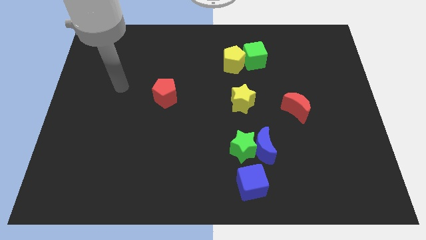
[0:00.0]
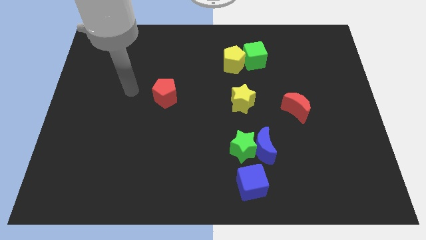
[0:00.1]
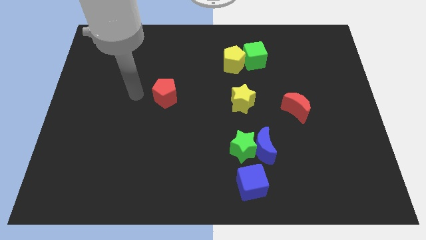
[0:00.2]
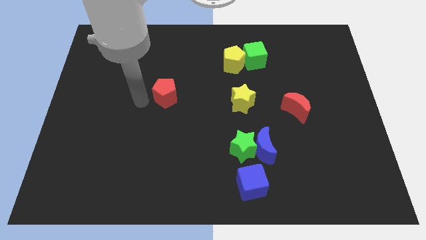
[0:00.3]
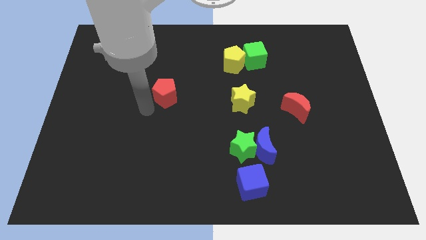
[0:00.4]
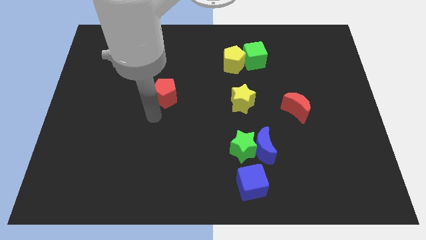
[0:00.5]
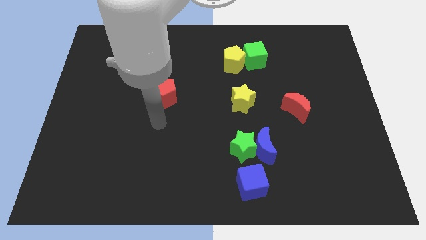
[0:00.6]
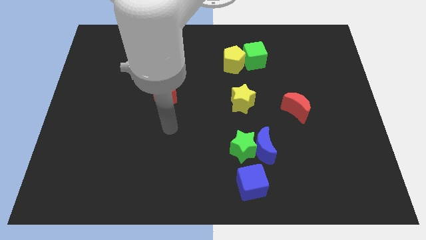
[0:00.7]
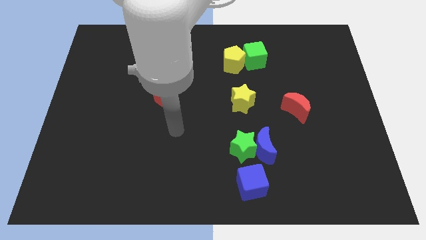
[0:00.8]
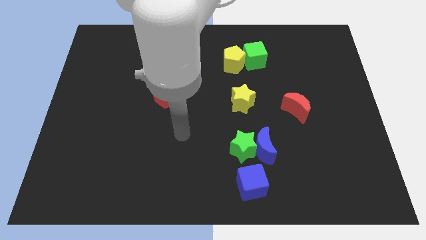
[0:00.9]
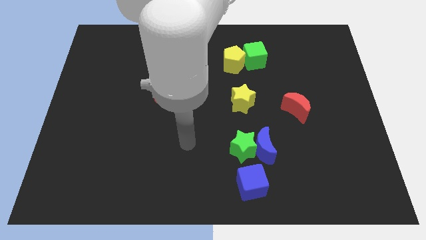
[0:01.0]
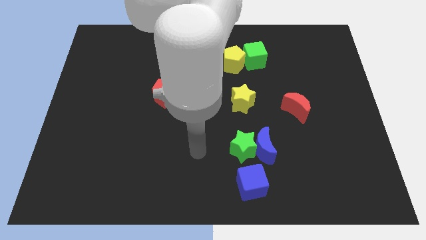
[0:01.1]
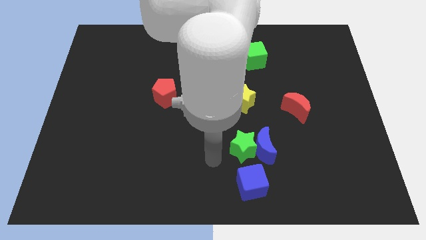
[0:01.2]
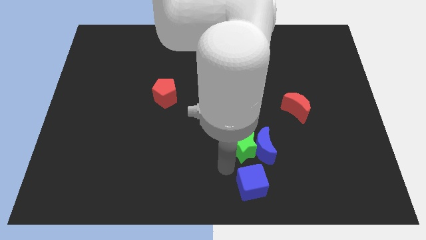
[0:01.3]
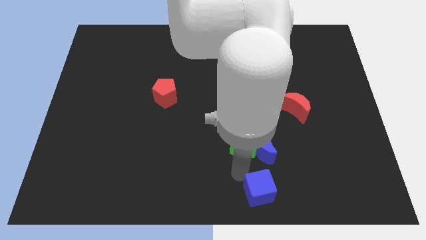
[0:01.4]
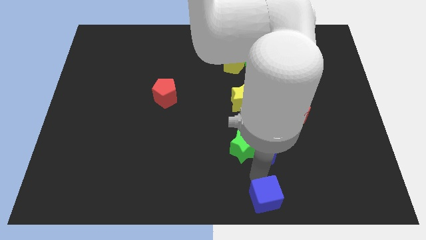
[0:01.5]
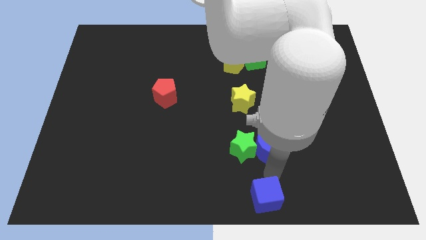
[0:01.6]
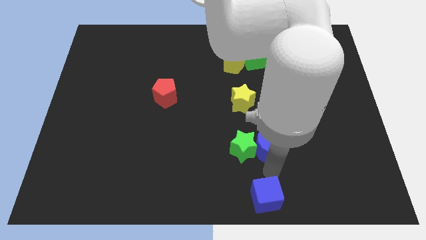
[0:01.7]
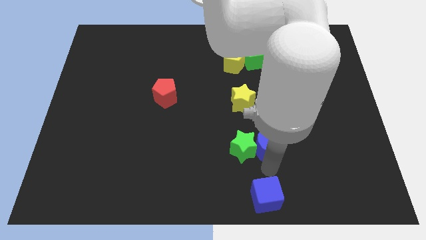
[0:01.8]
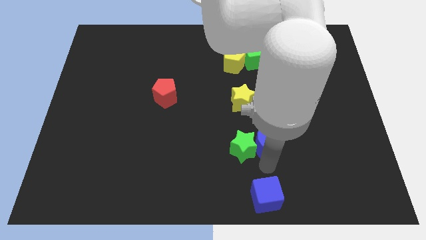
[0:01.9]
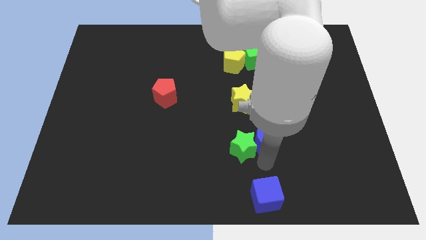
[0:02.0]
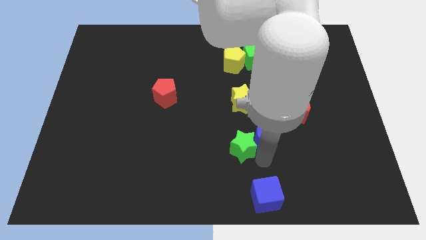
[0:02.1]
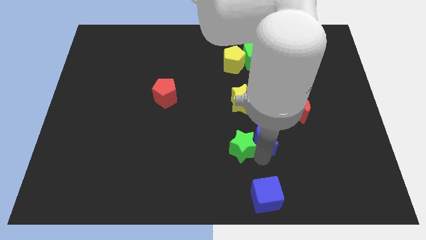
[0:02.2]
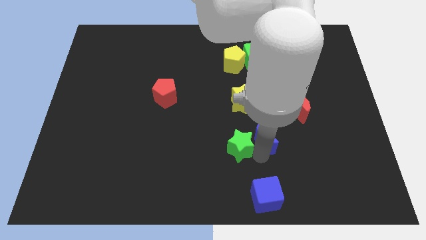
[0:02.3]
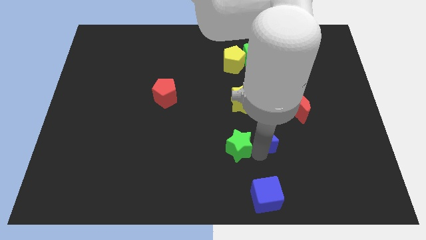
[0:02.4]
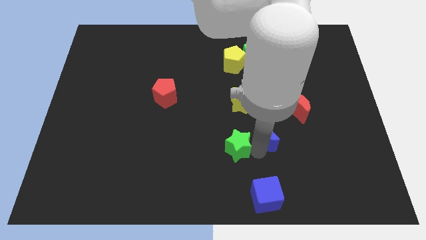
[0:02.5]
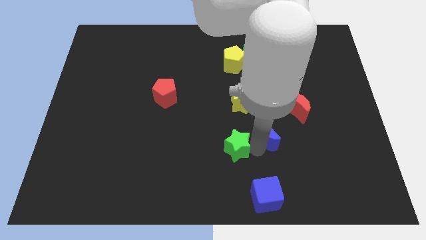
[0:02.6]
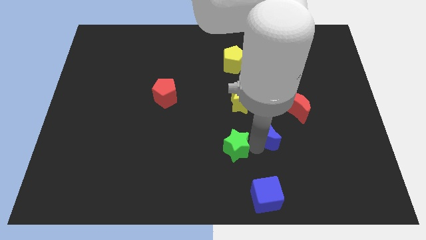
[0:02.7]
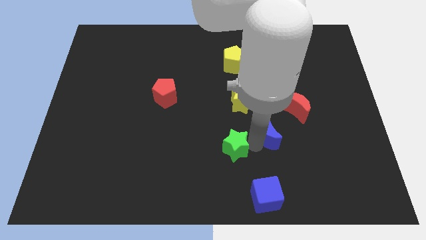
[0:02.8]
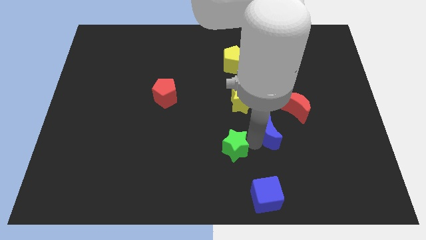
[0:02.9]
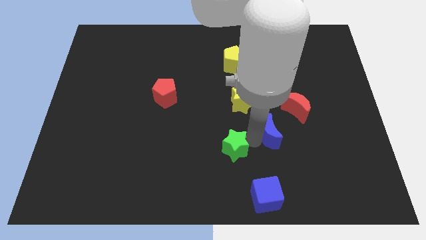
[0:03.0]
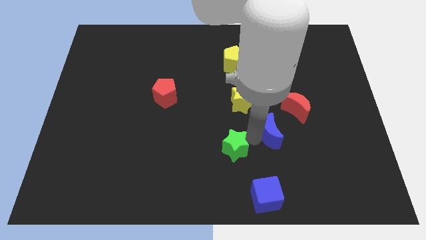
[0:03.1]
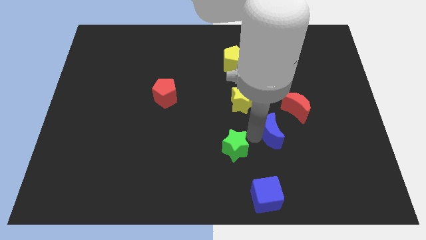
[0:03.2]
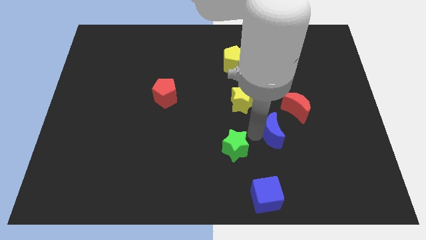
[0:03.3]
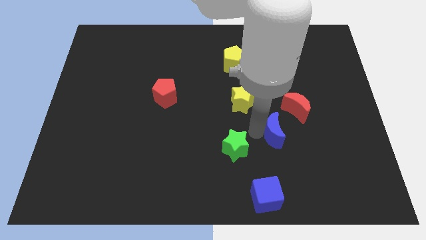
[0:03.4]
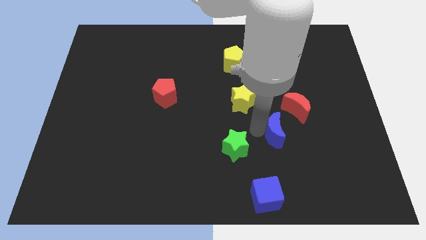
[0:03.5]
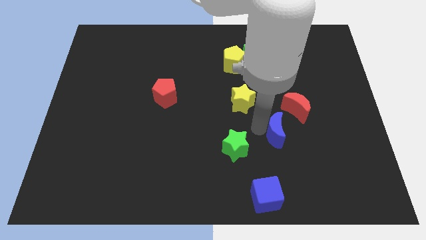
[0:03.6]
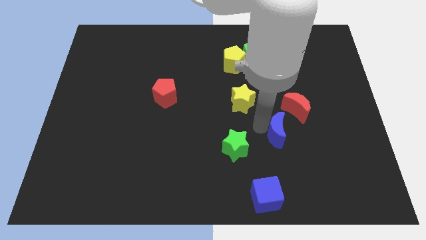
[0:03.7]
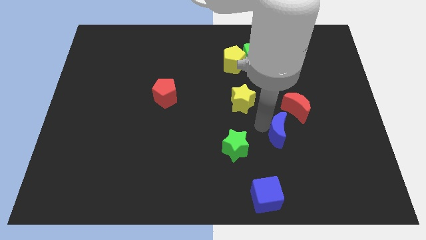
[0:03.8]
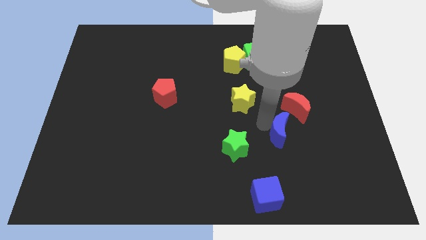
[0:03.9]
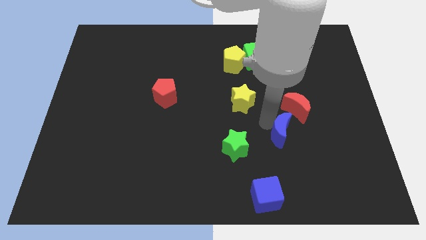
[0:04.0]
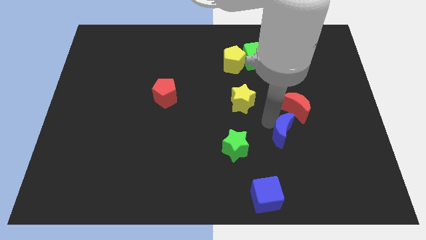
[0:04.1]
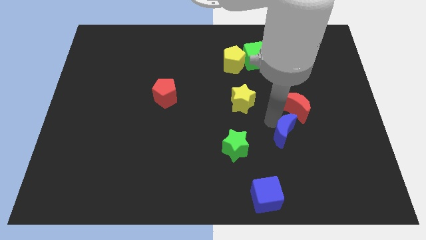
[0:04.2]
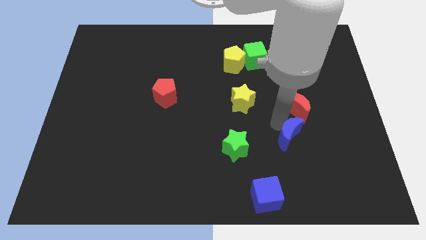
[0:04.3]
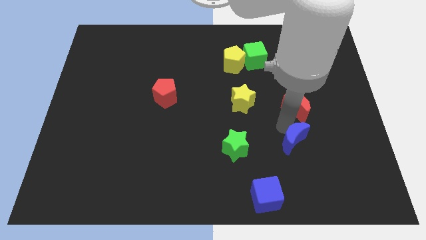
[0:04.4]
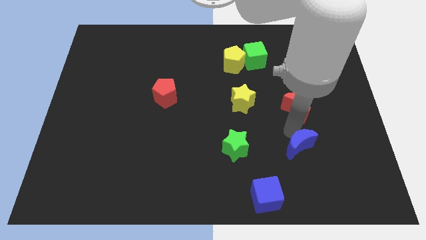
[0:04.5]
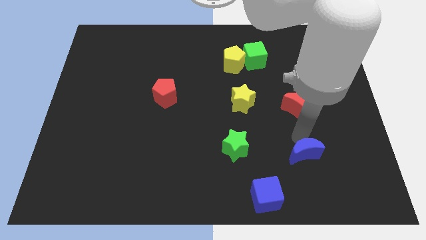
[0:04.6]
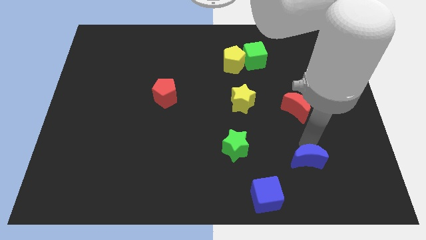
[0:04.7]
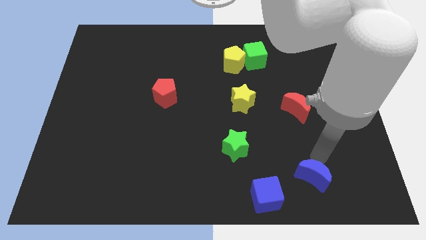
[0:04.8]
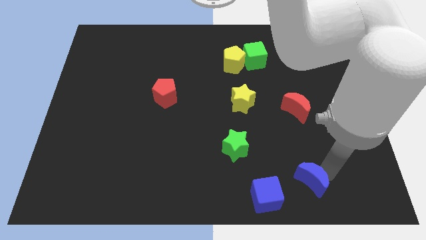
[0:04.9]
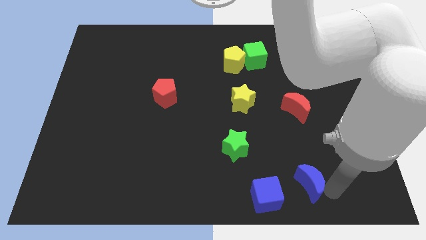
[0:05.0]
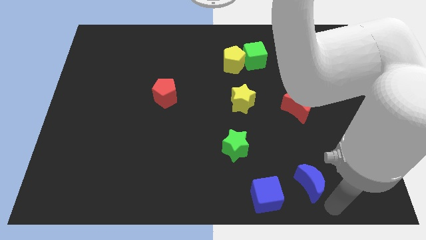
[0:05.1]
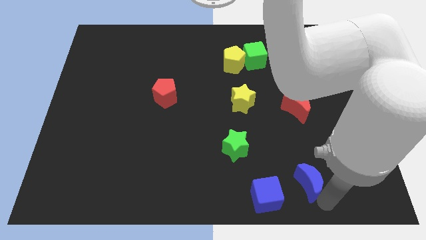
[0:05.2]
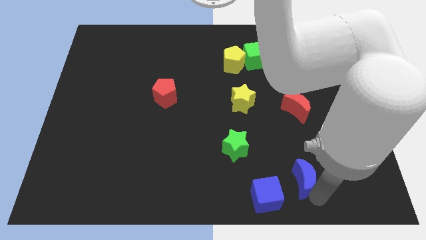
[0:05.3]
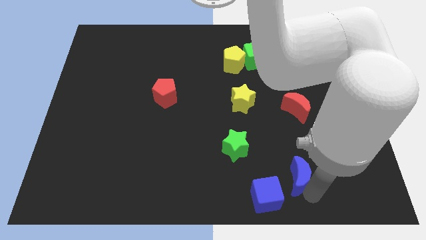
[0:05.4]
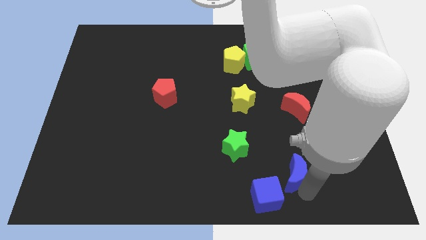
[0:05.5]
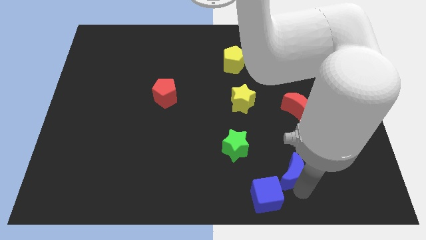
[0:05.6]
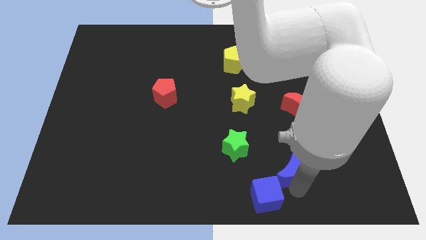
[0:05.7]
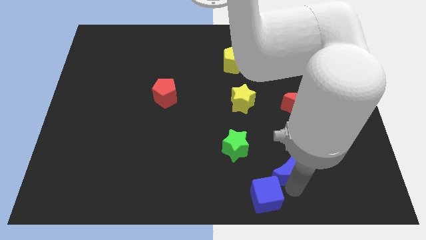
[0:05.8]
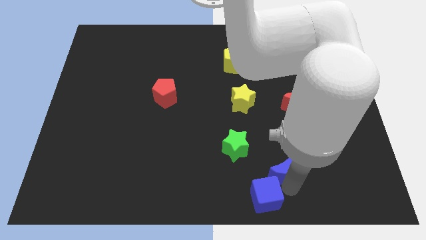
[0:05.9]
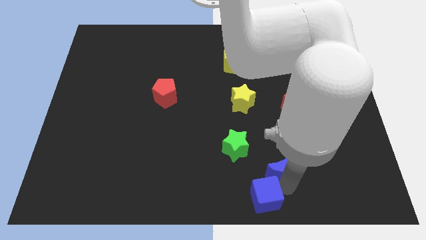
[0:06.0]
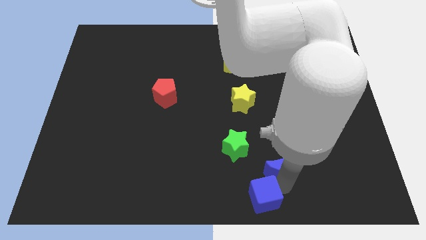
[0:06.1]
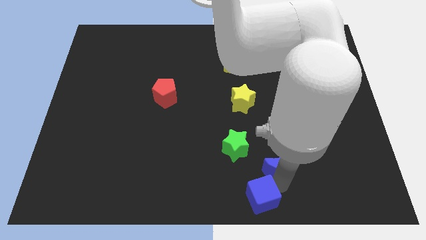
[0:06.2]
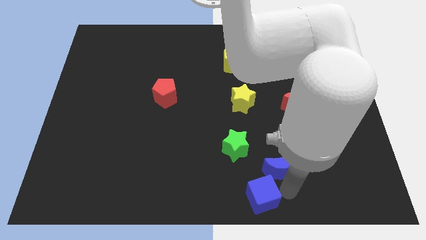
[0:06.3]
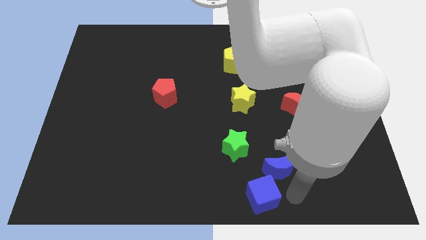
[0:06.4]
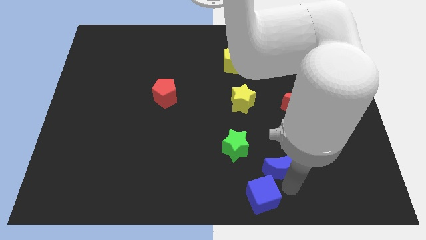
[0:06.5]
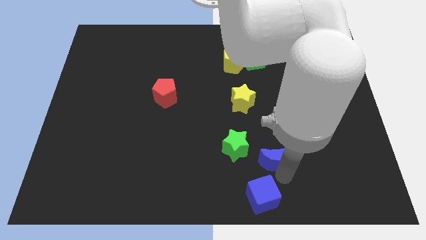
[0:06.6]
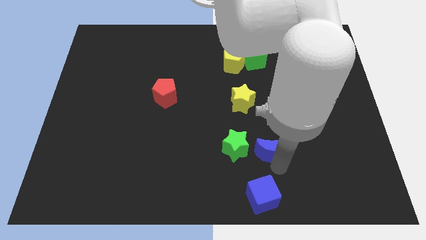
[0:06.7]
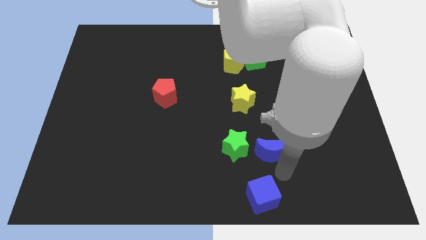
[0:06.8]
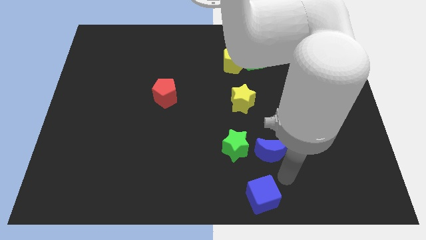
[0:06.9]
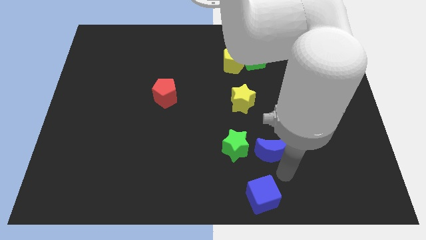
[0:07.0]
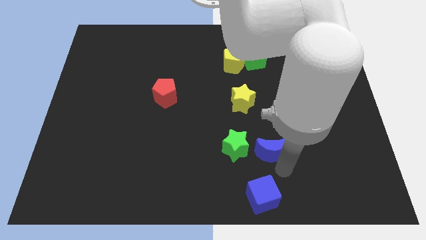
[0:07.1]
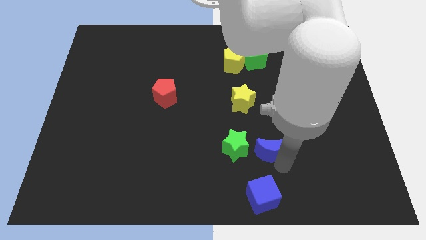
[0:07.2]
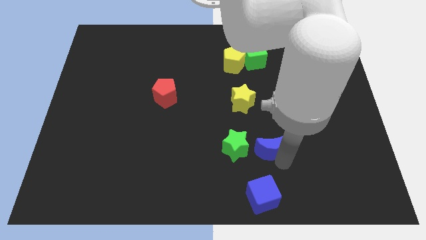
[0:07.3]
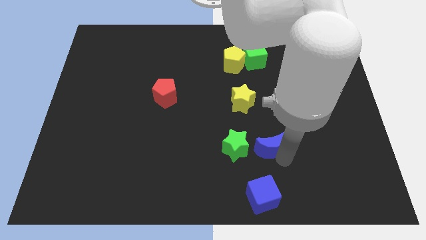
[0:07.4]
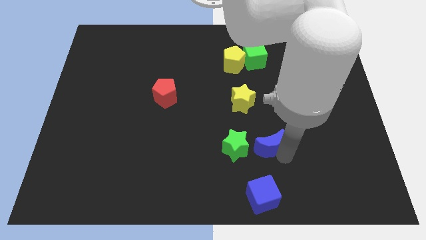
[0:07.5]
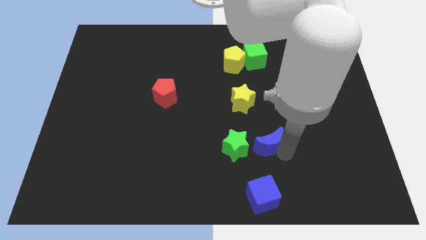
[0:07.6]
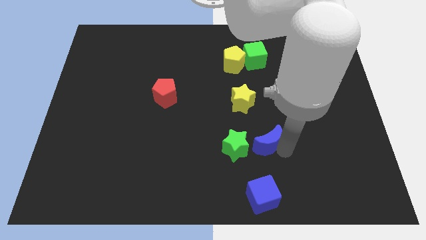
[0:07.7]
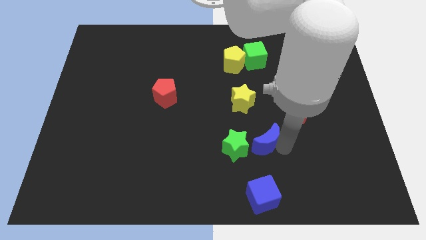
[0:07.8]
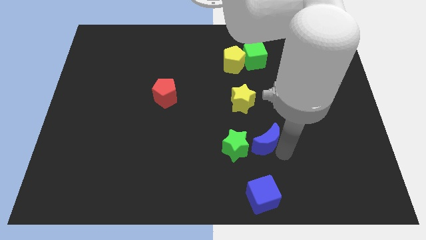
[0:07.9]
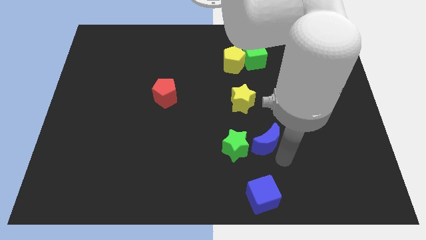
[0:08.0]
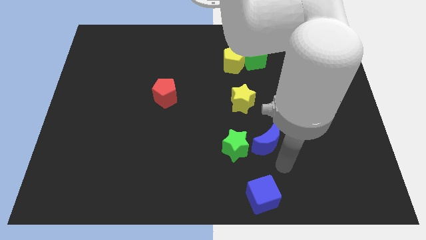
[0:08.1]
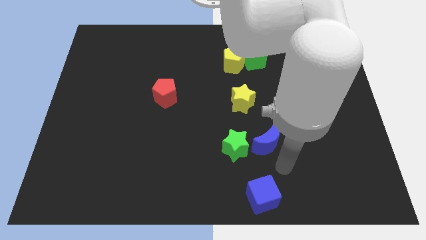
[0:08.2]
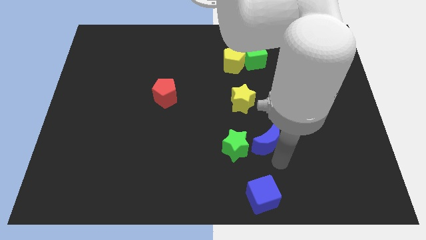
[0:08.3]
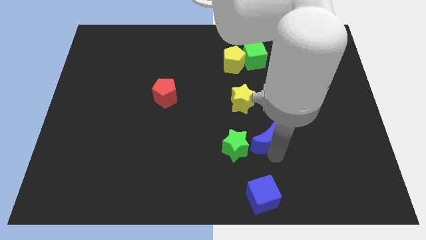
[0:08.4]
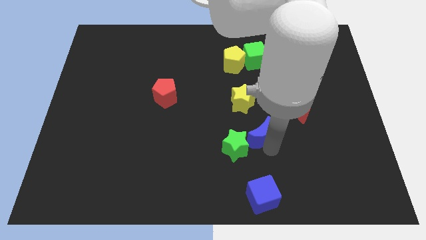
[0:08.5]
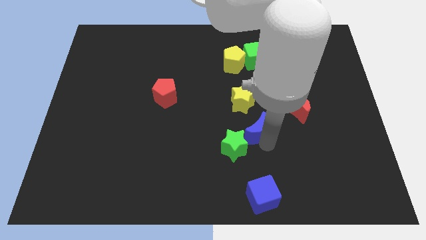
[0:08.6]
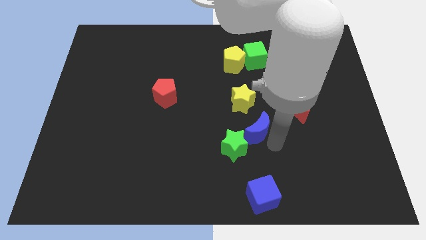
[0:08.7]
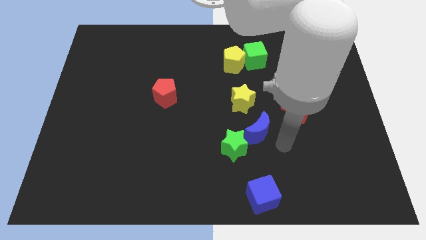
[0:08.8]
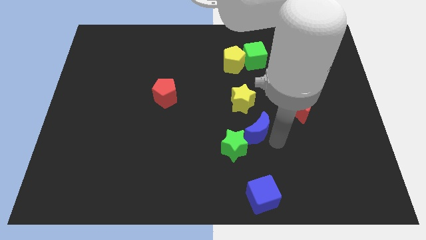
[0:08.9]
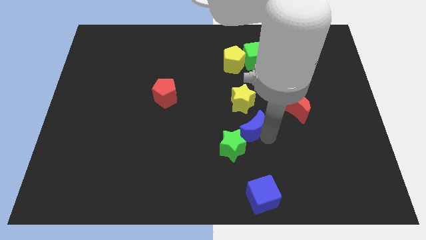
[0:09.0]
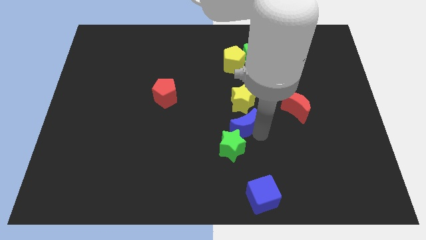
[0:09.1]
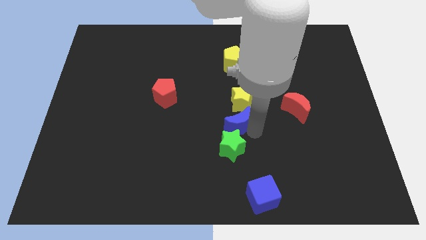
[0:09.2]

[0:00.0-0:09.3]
move the blue moon somewhat upwards and to the left diagonally
